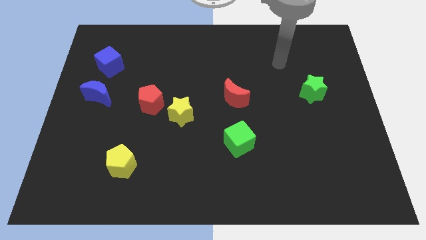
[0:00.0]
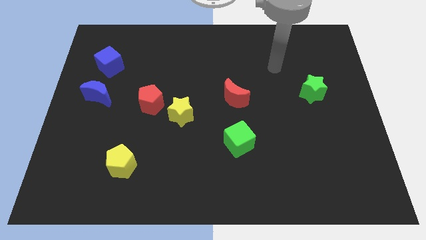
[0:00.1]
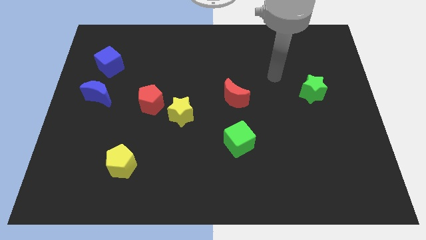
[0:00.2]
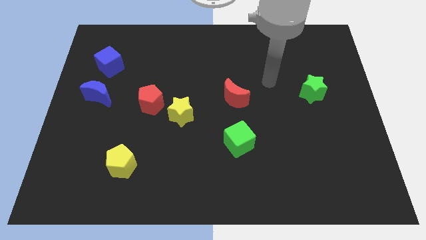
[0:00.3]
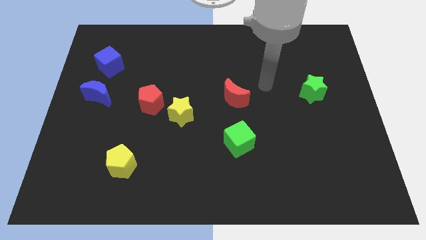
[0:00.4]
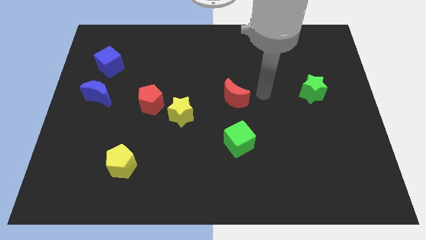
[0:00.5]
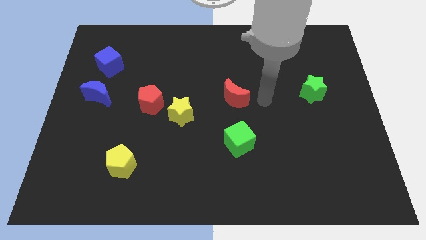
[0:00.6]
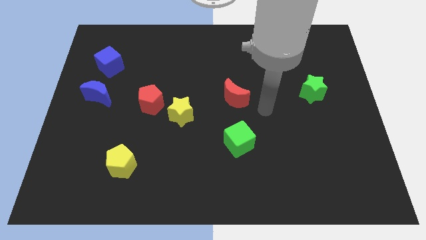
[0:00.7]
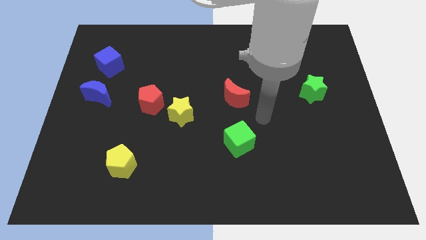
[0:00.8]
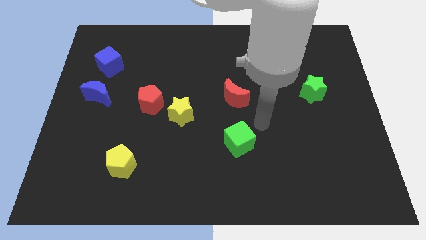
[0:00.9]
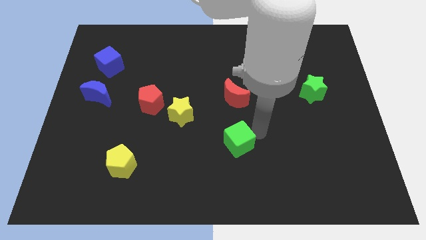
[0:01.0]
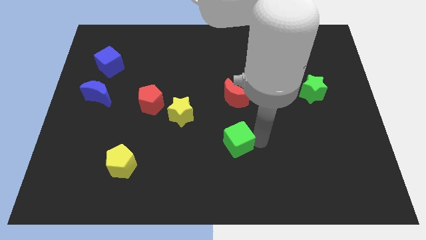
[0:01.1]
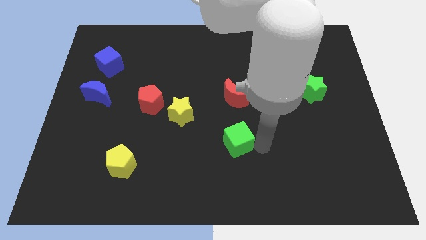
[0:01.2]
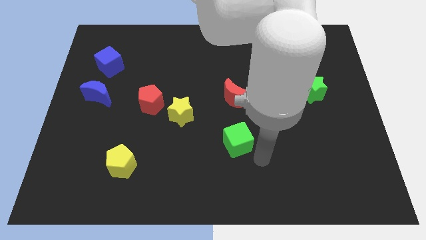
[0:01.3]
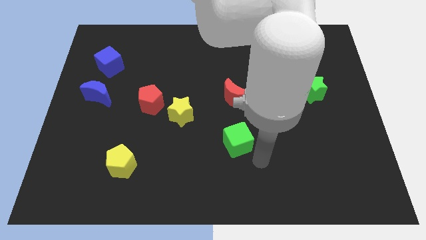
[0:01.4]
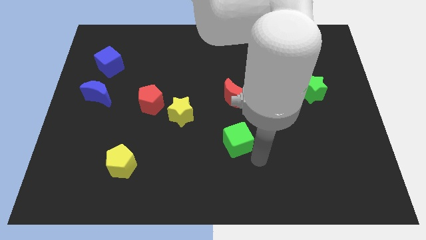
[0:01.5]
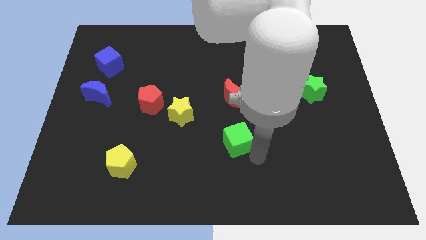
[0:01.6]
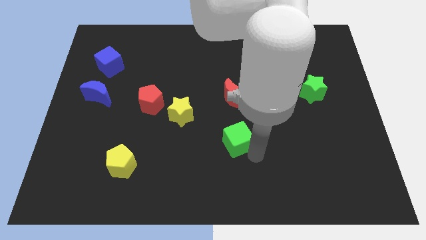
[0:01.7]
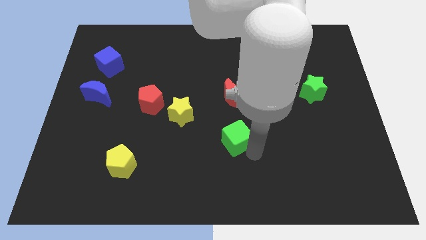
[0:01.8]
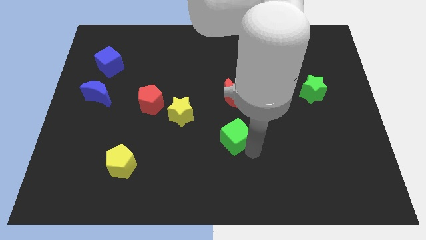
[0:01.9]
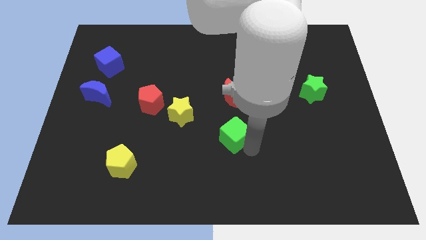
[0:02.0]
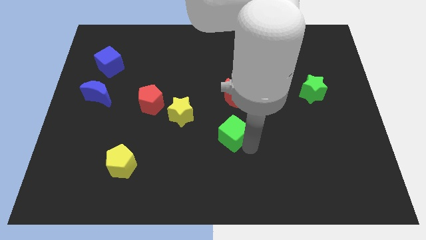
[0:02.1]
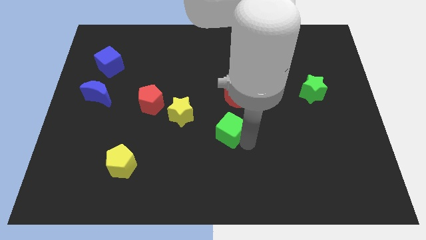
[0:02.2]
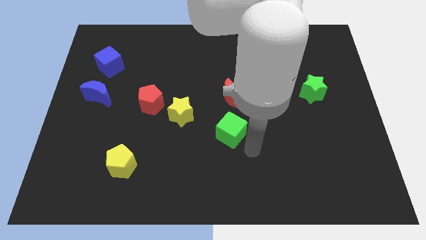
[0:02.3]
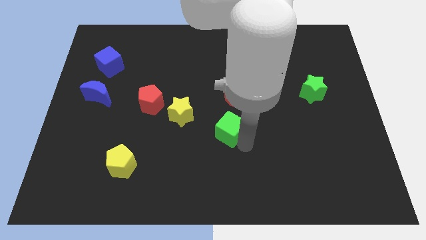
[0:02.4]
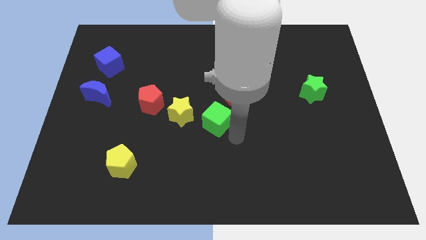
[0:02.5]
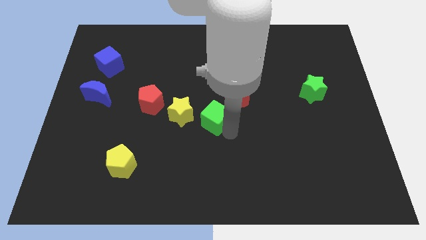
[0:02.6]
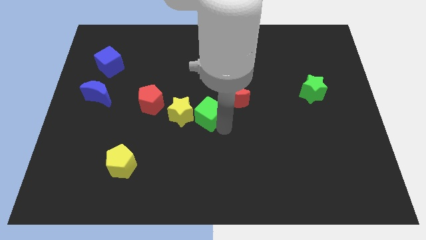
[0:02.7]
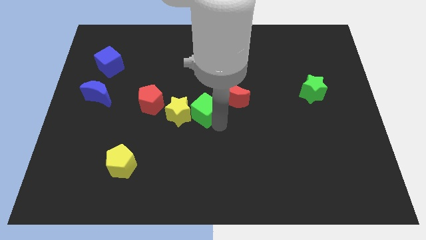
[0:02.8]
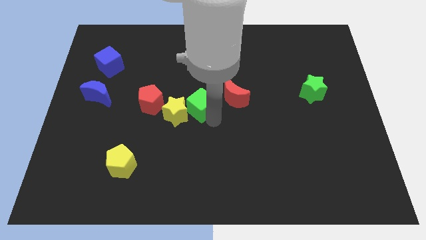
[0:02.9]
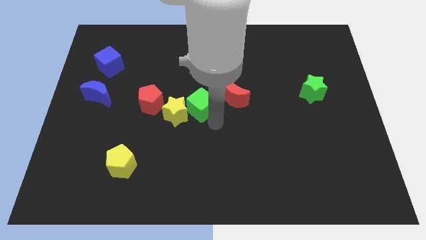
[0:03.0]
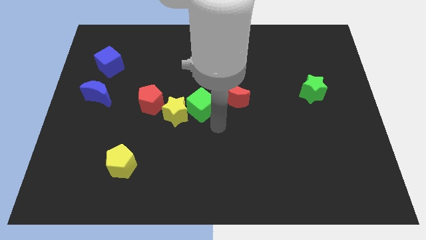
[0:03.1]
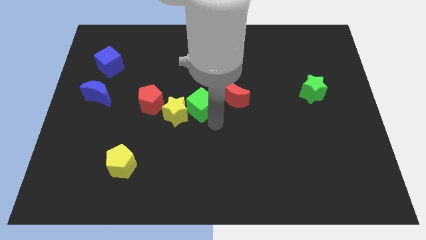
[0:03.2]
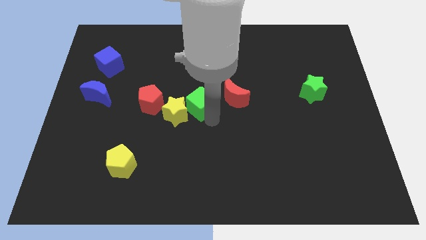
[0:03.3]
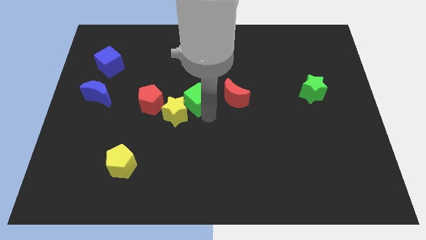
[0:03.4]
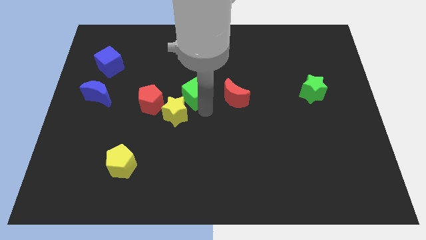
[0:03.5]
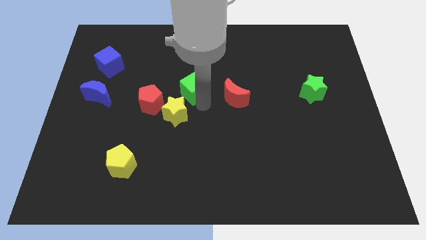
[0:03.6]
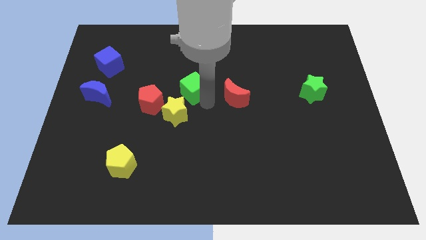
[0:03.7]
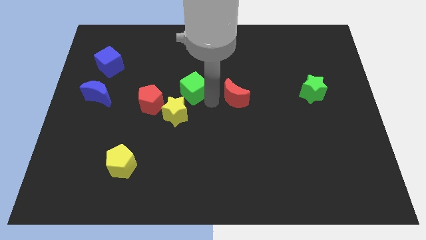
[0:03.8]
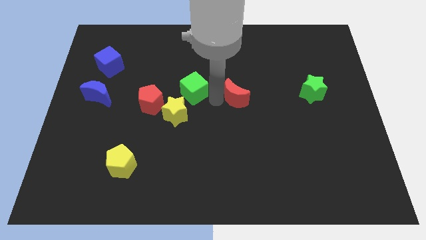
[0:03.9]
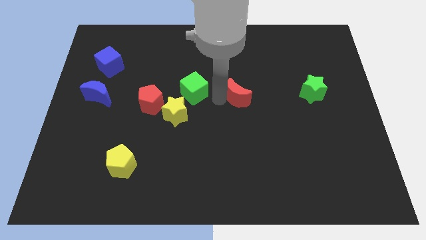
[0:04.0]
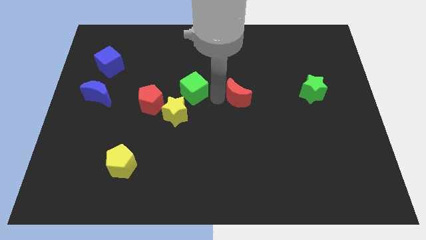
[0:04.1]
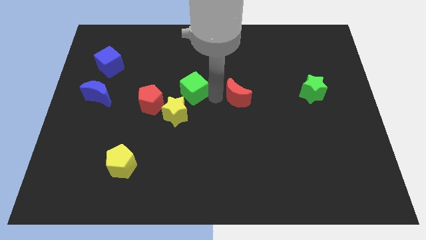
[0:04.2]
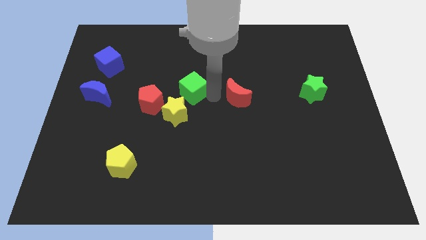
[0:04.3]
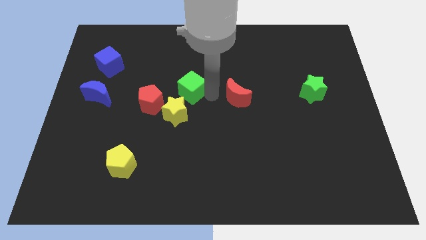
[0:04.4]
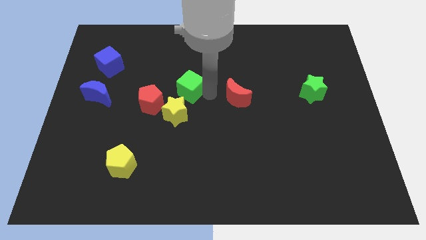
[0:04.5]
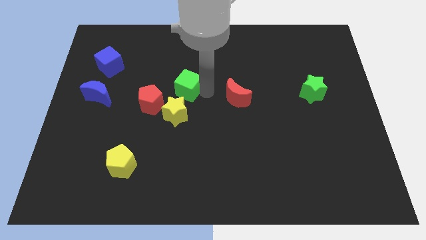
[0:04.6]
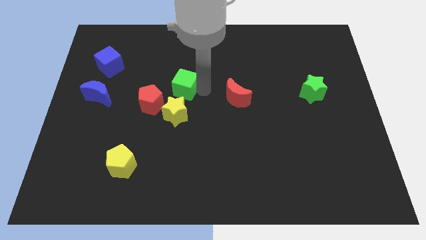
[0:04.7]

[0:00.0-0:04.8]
move the green cube upwards and to the left diagonally

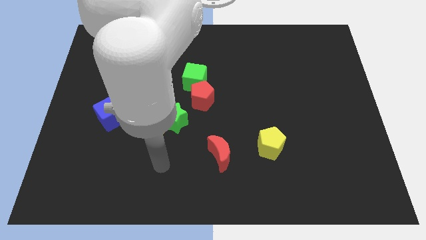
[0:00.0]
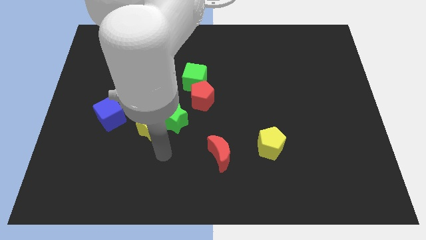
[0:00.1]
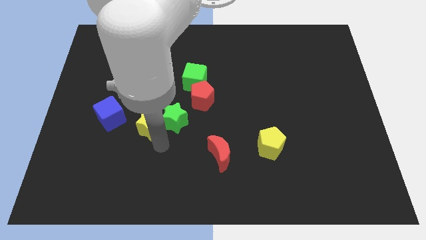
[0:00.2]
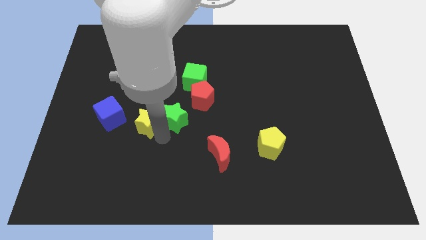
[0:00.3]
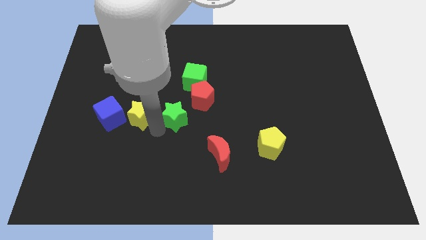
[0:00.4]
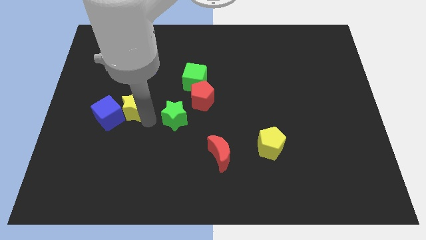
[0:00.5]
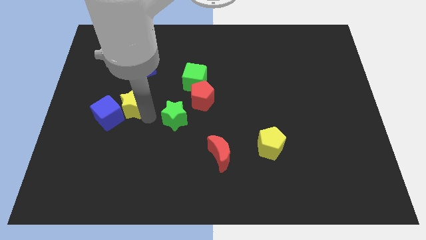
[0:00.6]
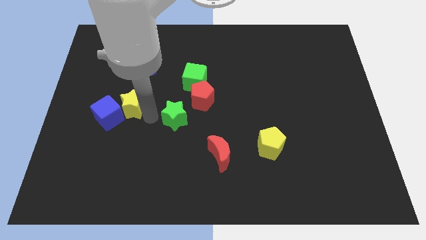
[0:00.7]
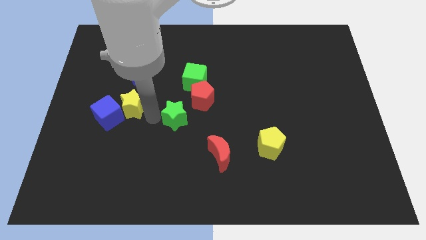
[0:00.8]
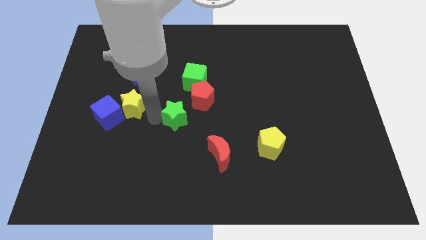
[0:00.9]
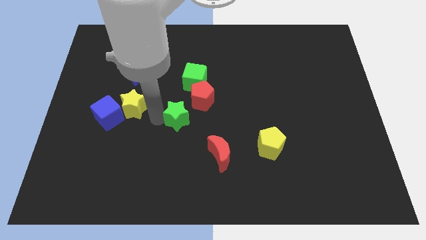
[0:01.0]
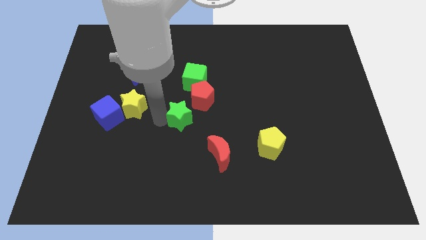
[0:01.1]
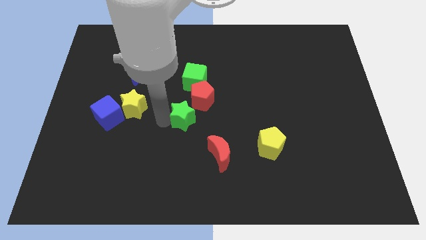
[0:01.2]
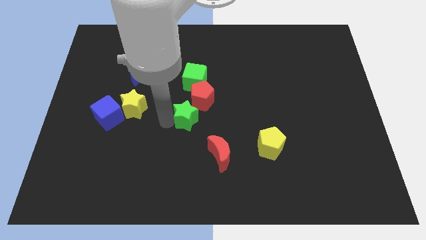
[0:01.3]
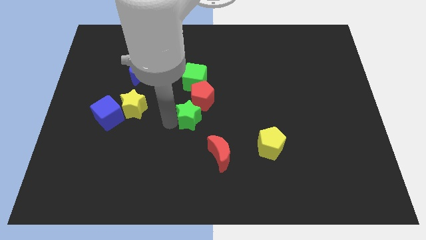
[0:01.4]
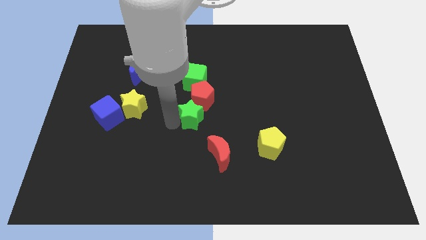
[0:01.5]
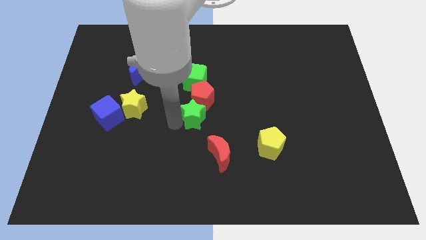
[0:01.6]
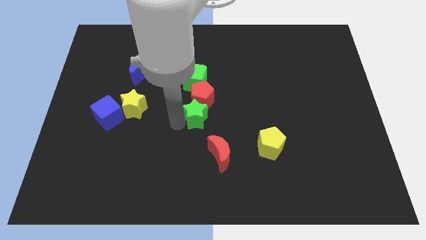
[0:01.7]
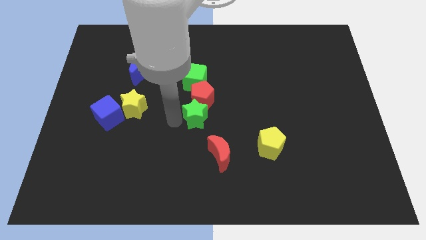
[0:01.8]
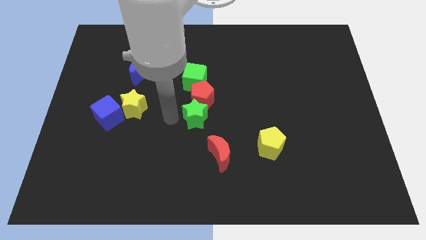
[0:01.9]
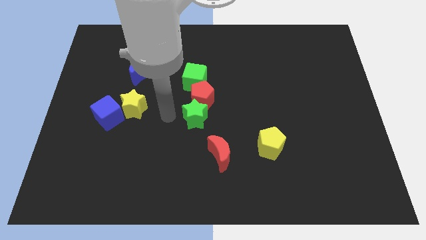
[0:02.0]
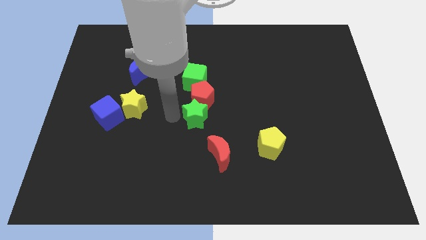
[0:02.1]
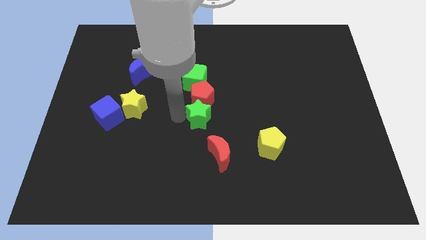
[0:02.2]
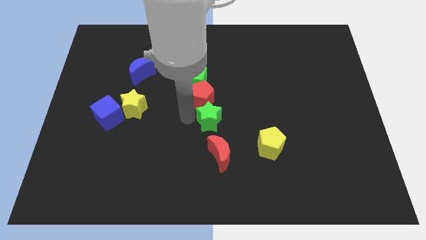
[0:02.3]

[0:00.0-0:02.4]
slide the green star somewhat right

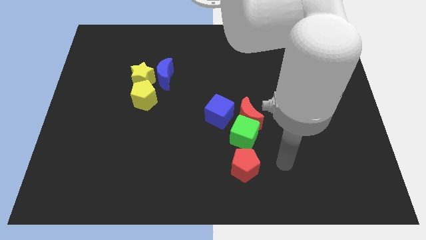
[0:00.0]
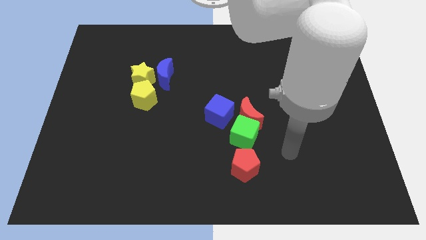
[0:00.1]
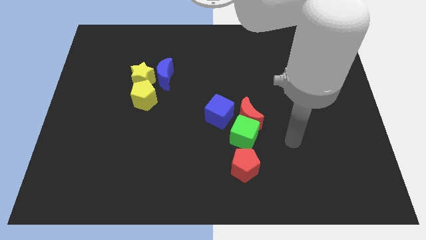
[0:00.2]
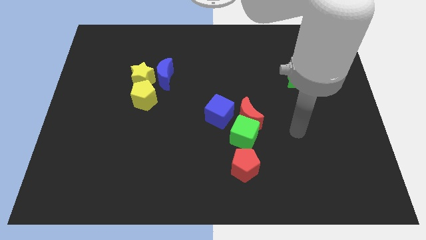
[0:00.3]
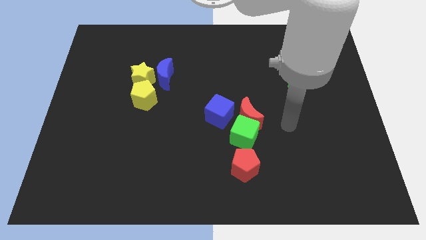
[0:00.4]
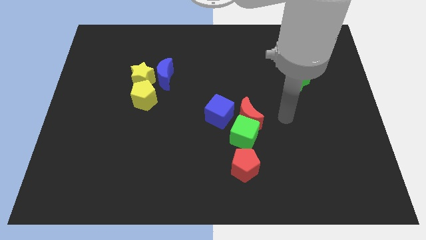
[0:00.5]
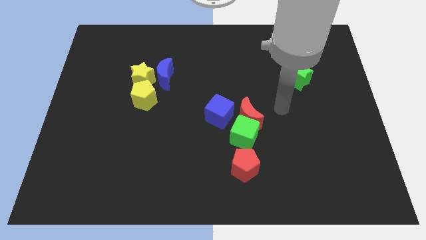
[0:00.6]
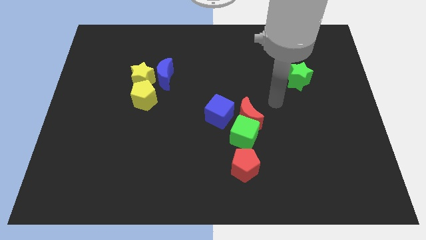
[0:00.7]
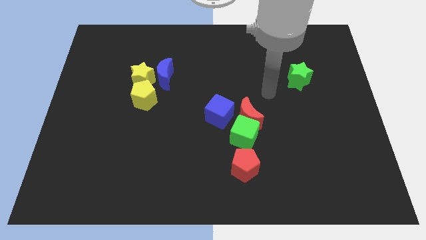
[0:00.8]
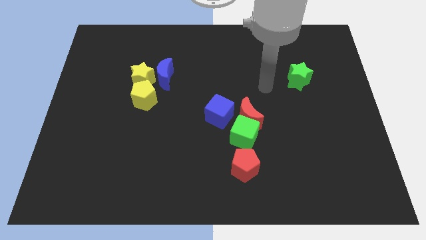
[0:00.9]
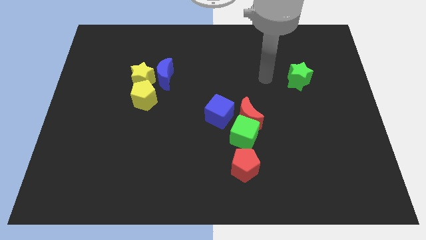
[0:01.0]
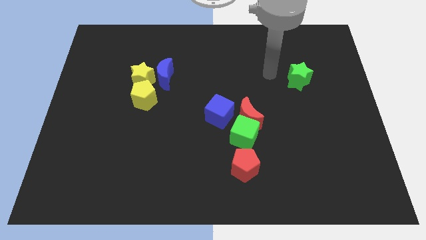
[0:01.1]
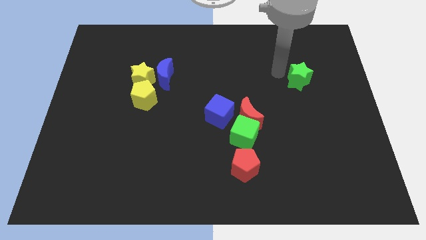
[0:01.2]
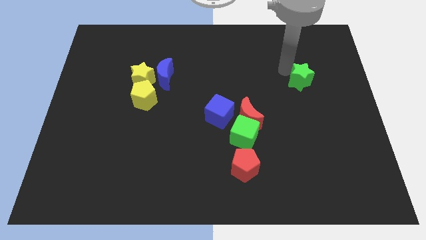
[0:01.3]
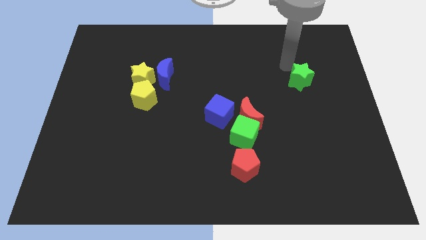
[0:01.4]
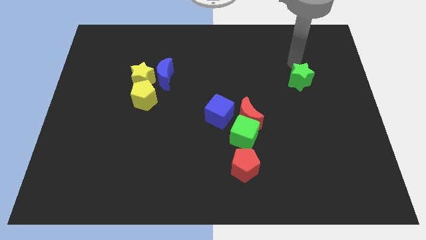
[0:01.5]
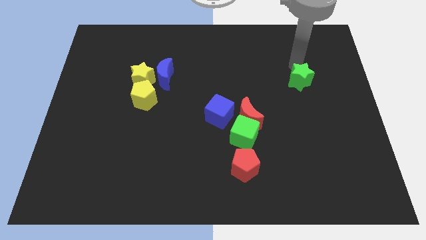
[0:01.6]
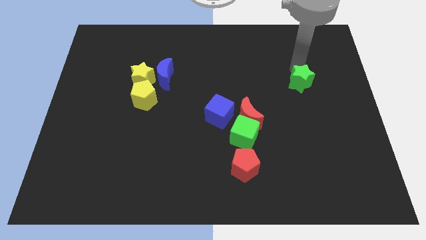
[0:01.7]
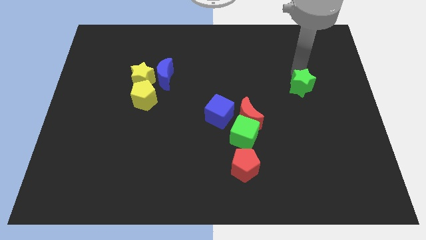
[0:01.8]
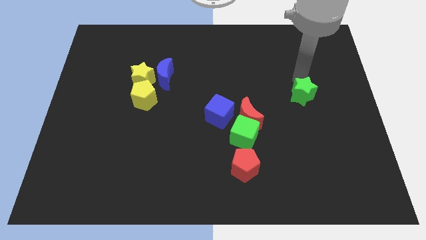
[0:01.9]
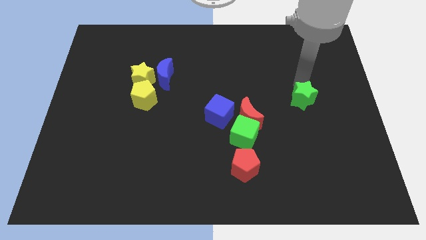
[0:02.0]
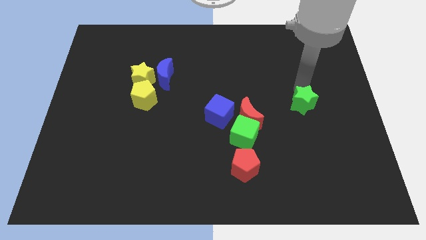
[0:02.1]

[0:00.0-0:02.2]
slightly slide the green star down
